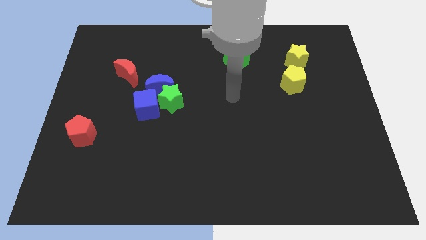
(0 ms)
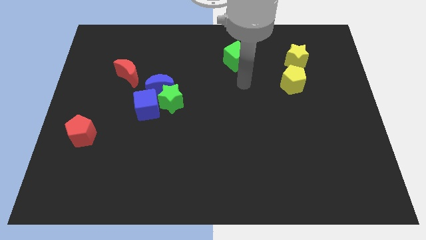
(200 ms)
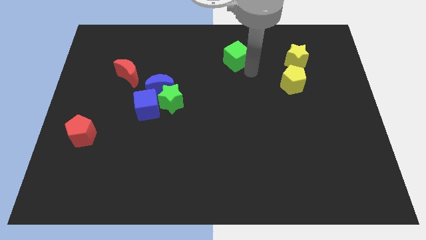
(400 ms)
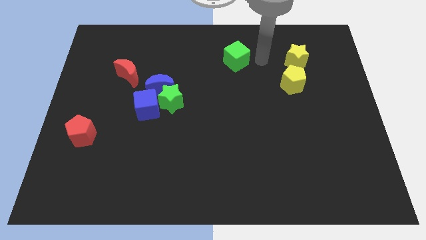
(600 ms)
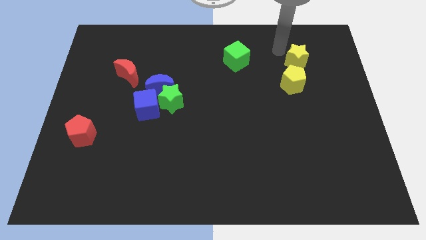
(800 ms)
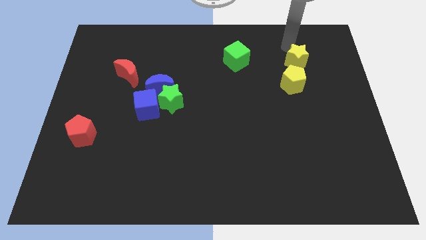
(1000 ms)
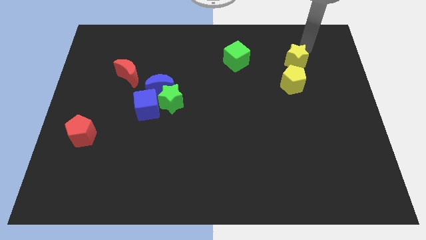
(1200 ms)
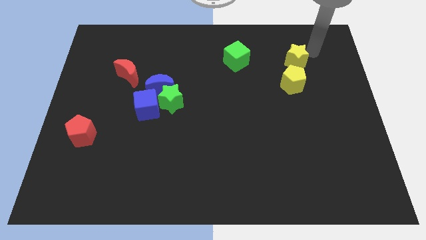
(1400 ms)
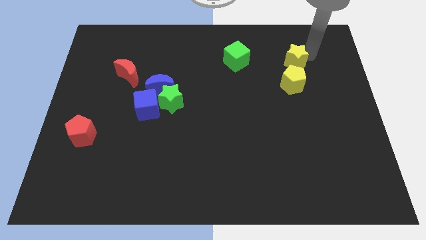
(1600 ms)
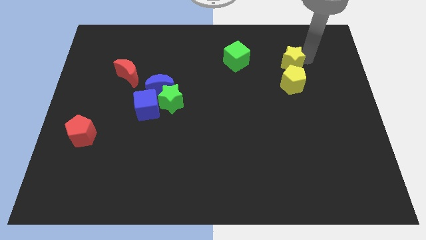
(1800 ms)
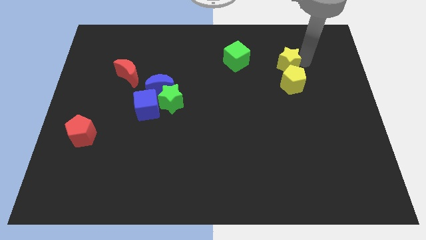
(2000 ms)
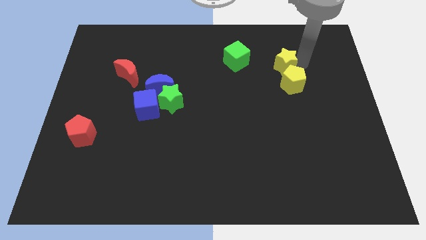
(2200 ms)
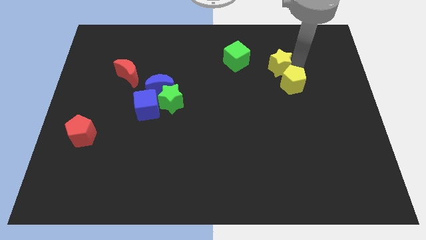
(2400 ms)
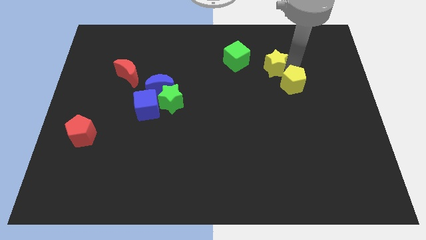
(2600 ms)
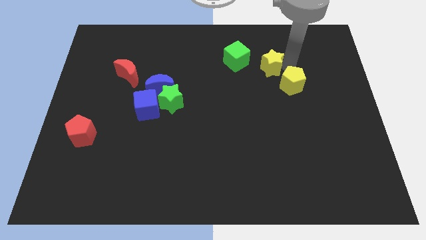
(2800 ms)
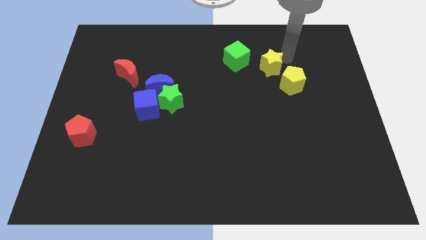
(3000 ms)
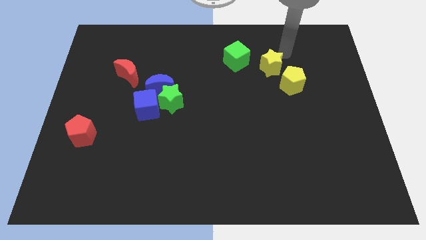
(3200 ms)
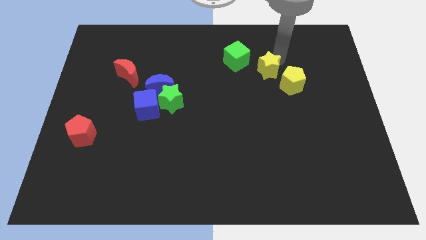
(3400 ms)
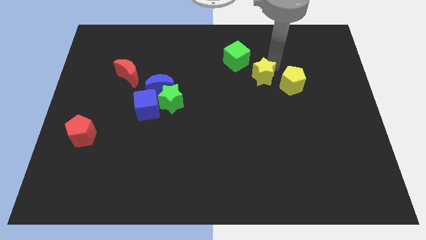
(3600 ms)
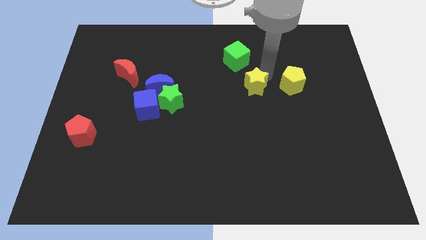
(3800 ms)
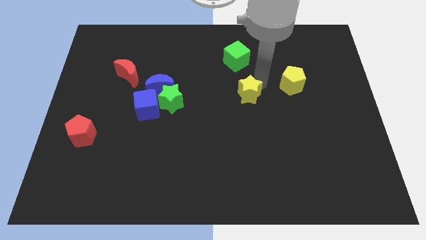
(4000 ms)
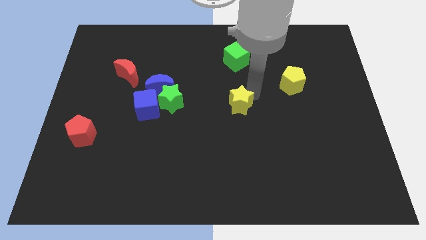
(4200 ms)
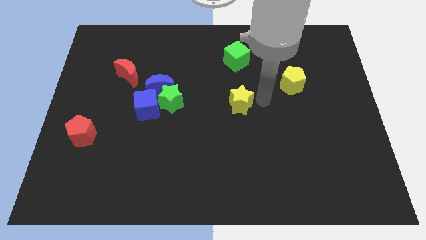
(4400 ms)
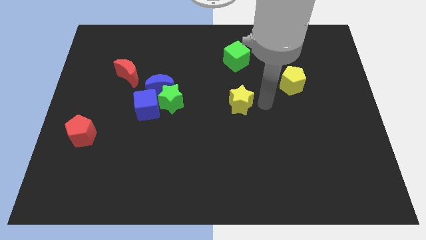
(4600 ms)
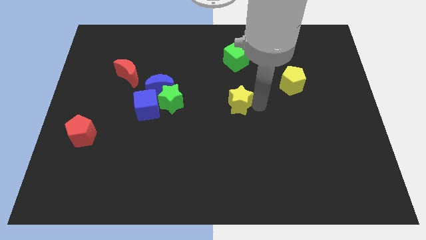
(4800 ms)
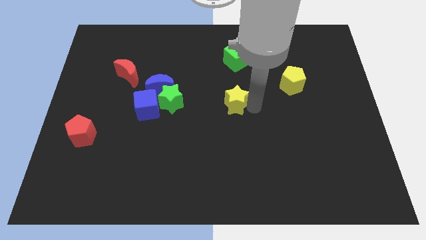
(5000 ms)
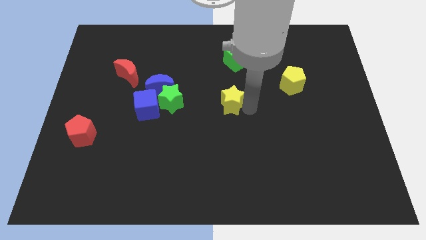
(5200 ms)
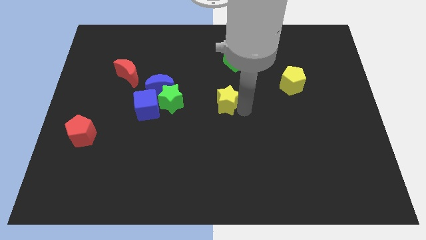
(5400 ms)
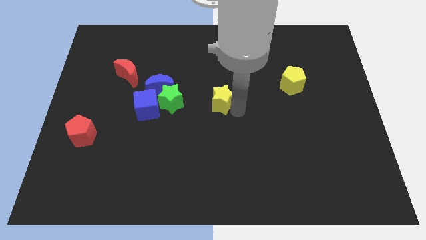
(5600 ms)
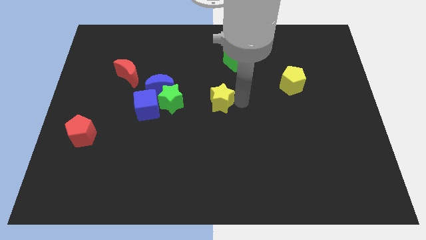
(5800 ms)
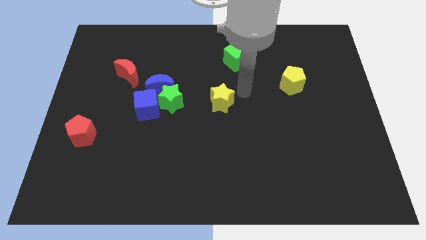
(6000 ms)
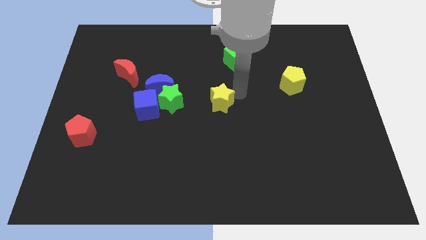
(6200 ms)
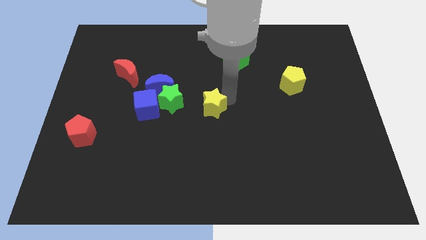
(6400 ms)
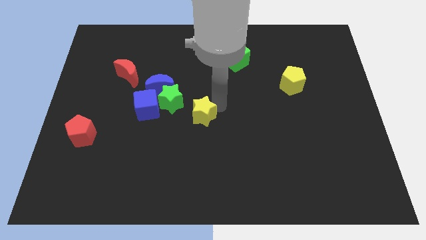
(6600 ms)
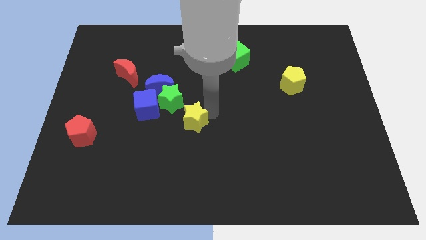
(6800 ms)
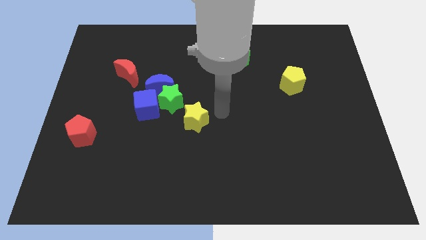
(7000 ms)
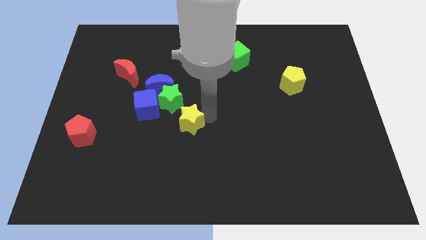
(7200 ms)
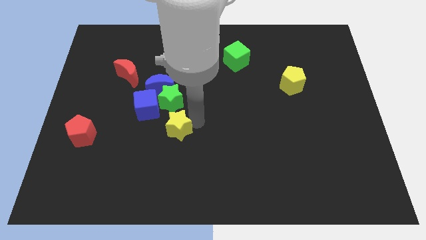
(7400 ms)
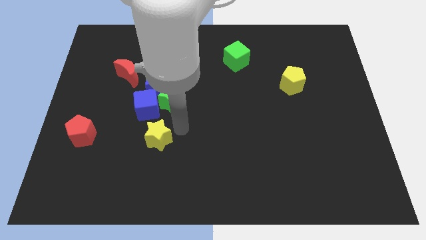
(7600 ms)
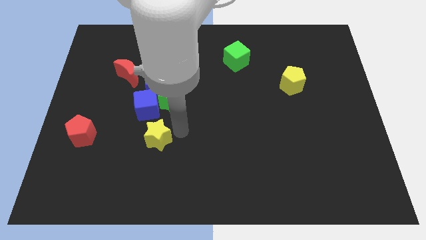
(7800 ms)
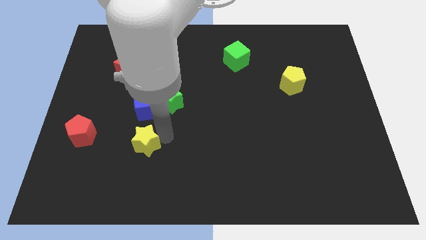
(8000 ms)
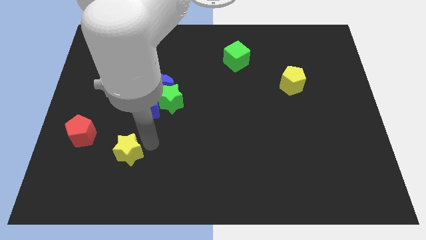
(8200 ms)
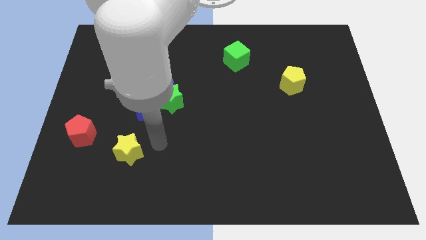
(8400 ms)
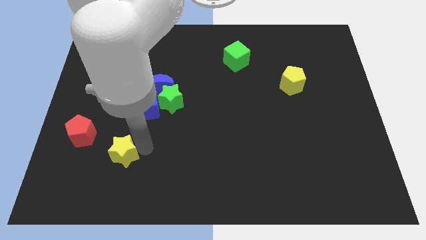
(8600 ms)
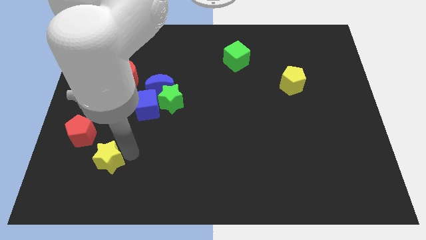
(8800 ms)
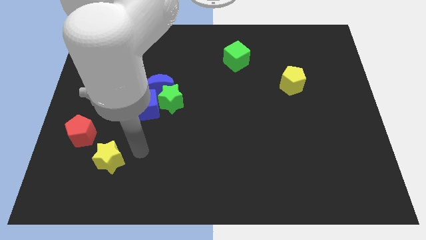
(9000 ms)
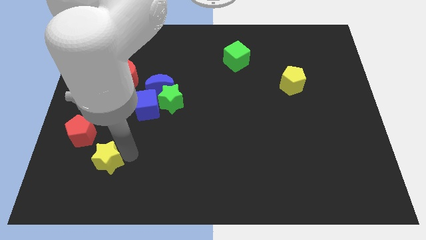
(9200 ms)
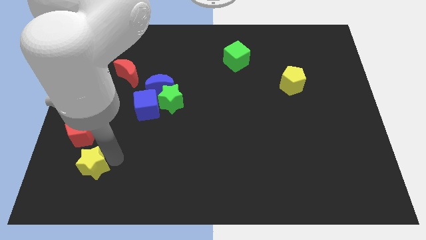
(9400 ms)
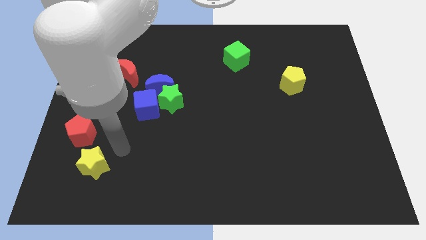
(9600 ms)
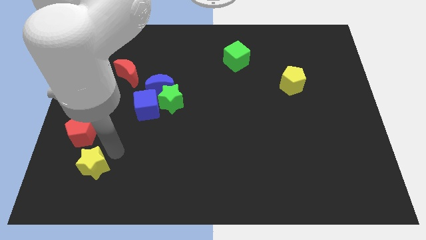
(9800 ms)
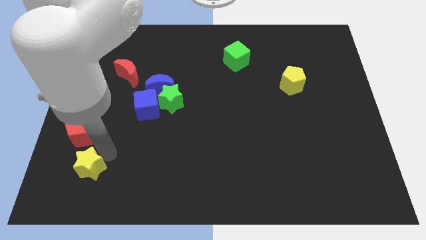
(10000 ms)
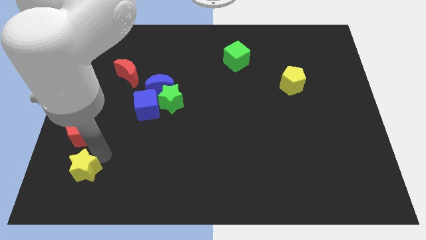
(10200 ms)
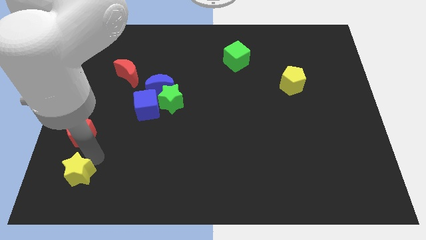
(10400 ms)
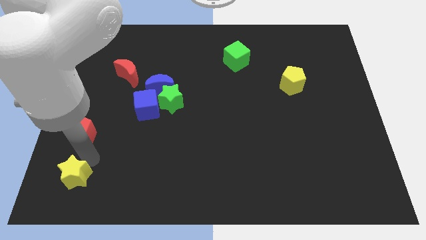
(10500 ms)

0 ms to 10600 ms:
put the yellow star to the bottom left

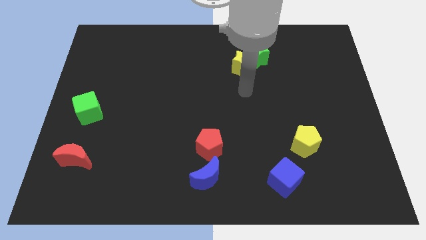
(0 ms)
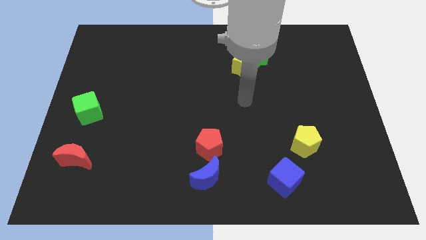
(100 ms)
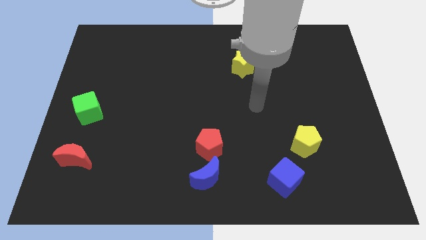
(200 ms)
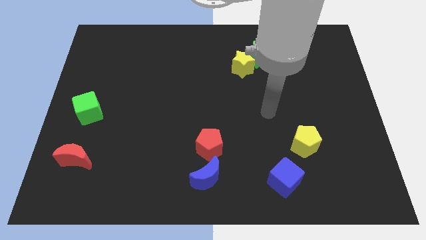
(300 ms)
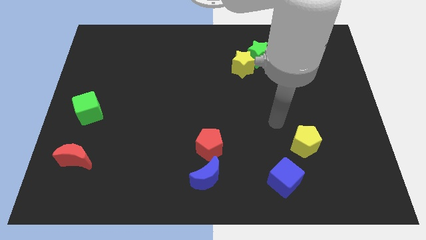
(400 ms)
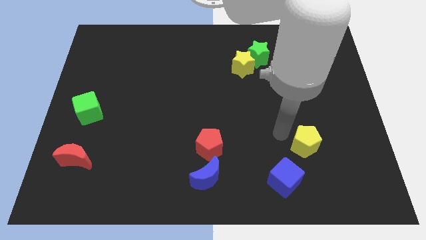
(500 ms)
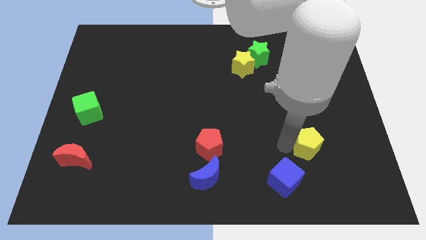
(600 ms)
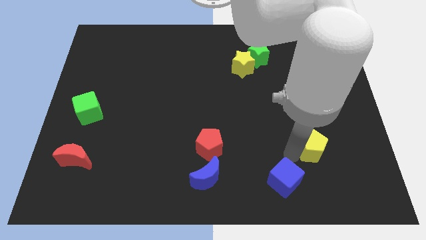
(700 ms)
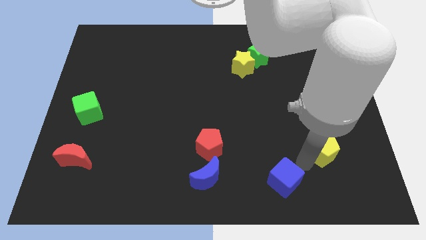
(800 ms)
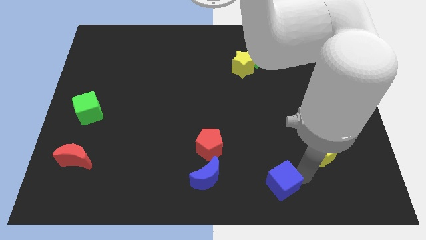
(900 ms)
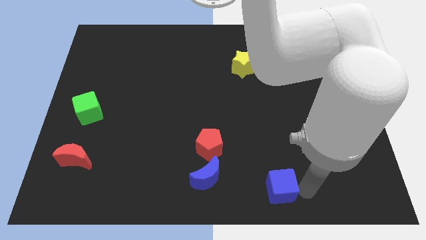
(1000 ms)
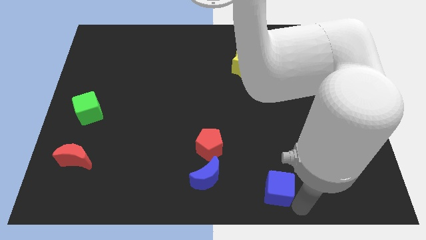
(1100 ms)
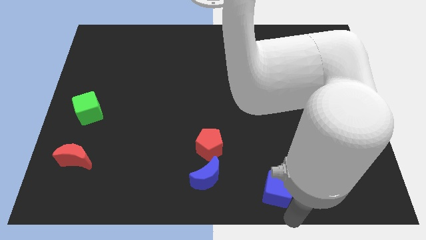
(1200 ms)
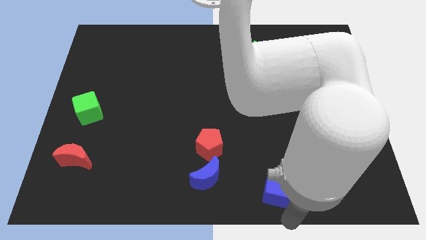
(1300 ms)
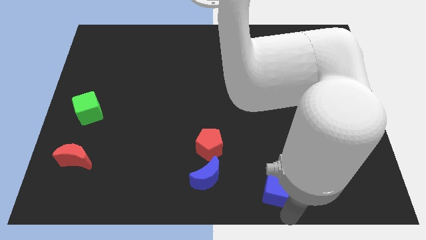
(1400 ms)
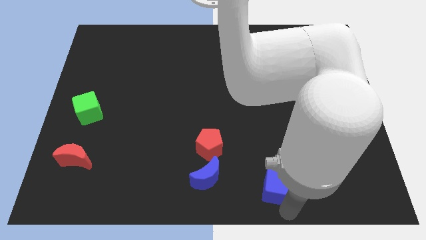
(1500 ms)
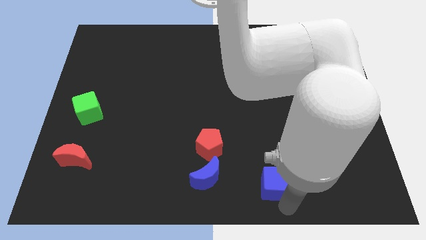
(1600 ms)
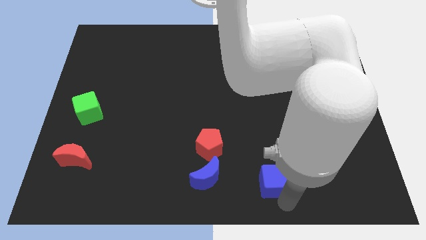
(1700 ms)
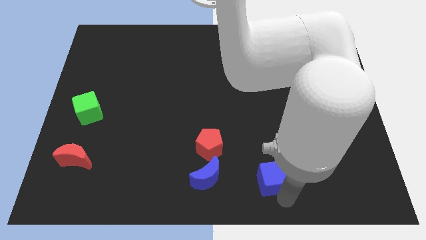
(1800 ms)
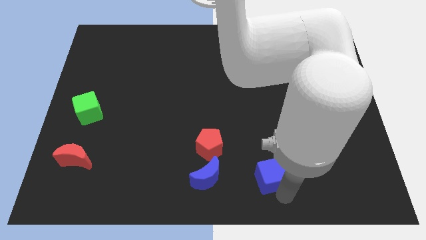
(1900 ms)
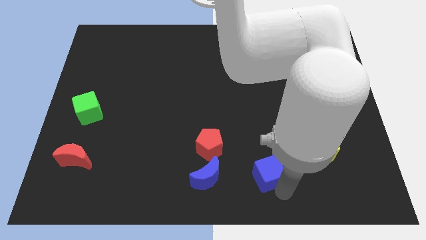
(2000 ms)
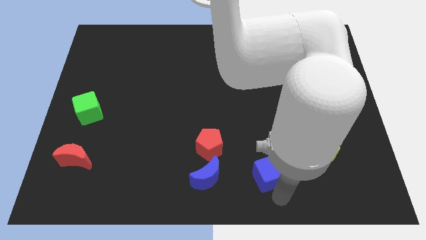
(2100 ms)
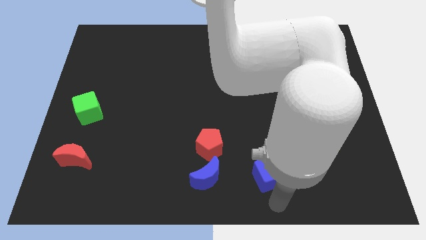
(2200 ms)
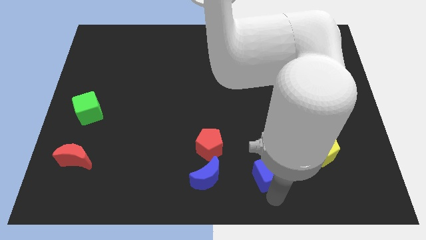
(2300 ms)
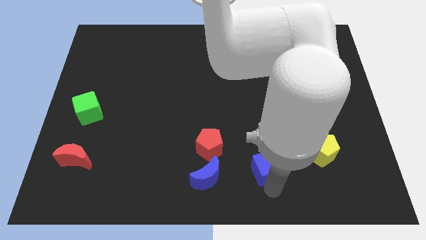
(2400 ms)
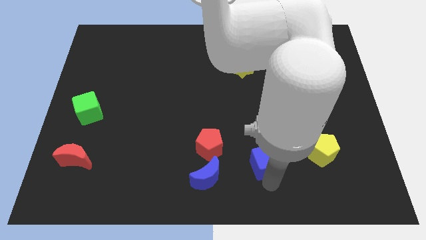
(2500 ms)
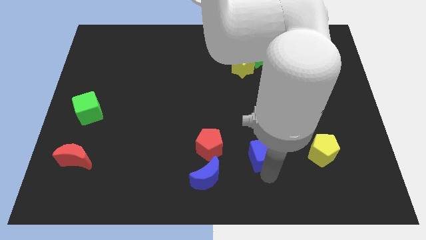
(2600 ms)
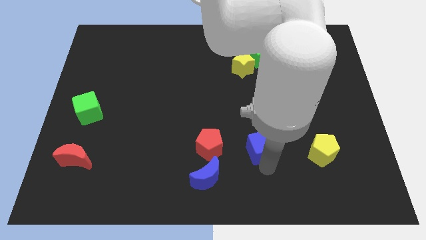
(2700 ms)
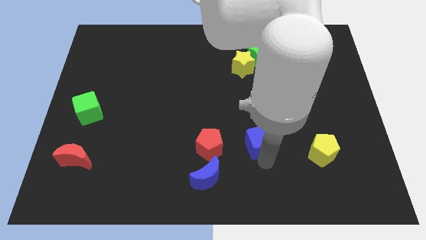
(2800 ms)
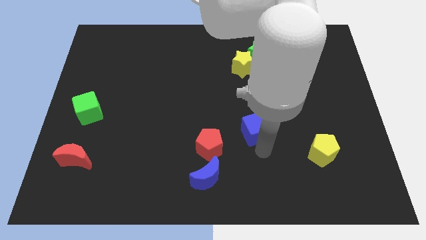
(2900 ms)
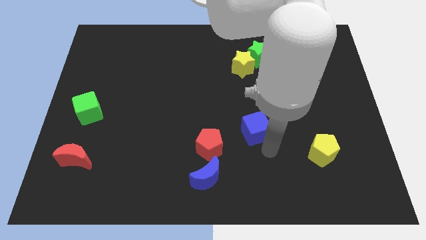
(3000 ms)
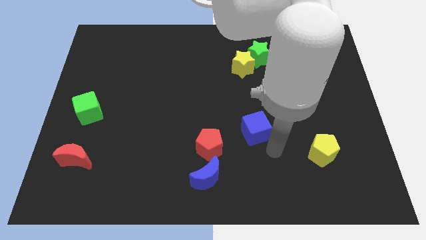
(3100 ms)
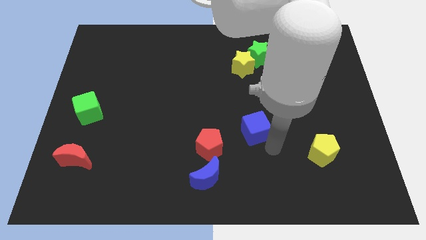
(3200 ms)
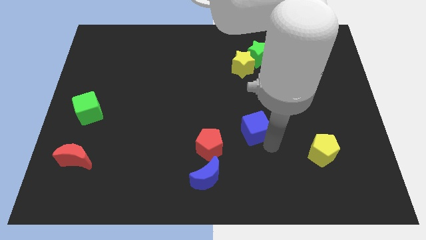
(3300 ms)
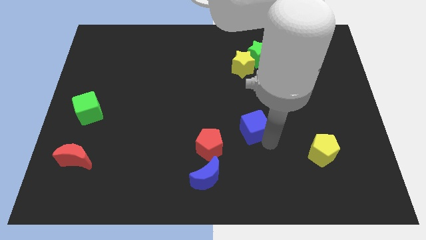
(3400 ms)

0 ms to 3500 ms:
put the blue cube to the middle of the board
